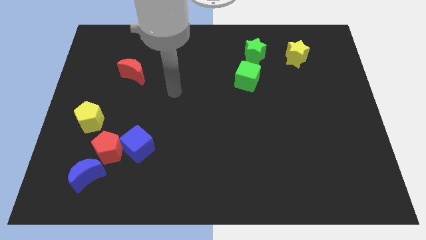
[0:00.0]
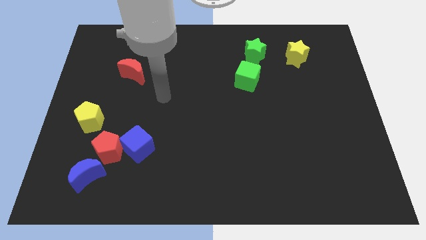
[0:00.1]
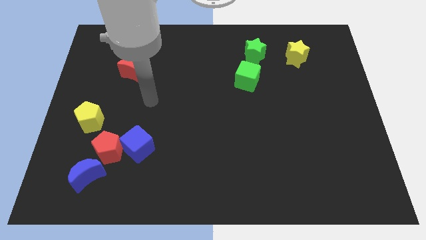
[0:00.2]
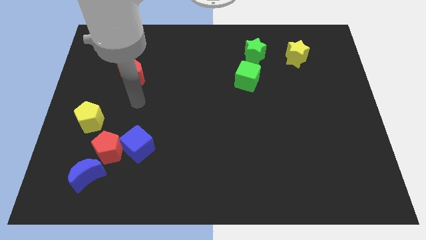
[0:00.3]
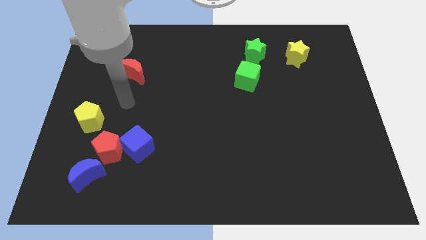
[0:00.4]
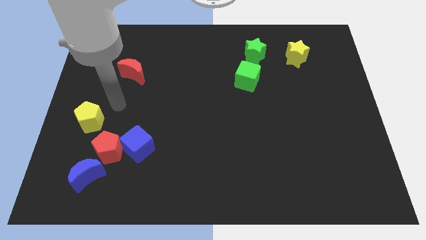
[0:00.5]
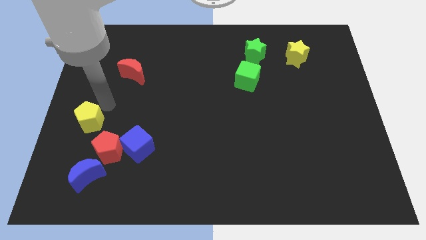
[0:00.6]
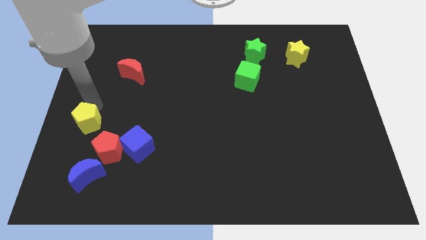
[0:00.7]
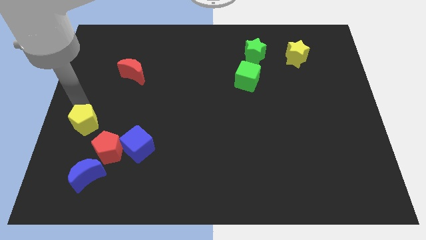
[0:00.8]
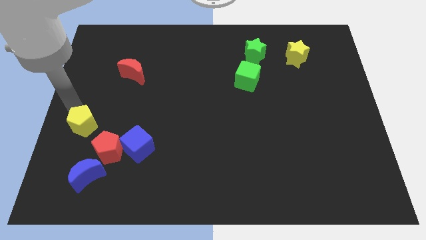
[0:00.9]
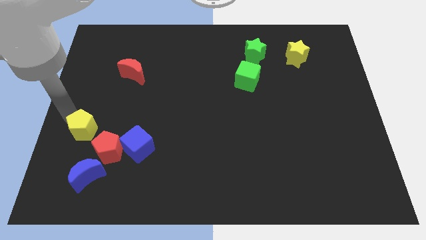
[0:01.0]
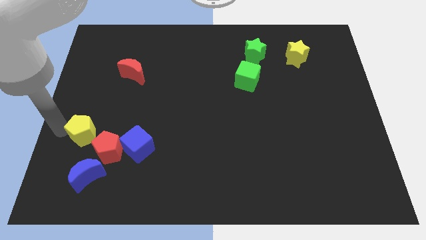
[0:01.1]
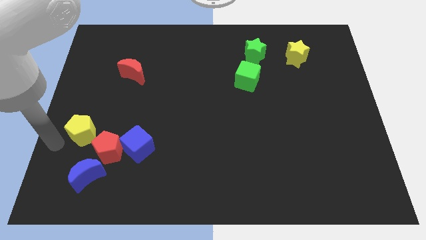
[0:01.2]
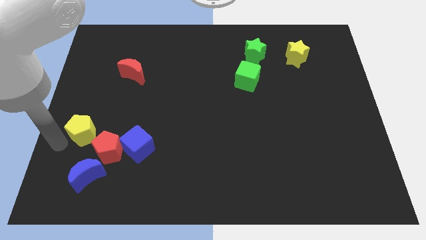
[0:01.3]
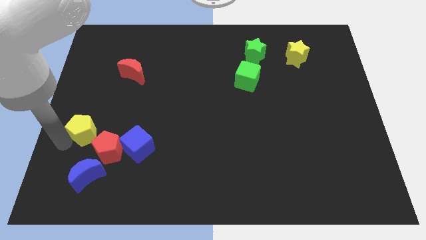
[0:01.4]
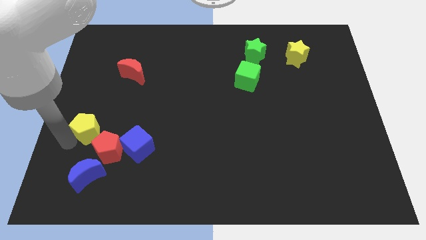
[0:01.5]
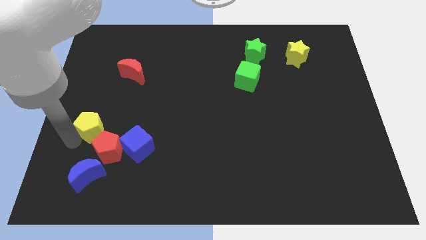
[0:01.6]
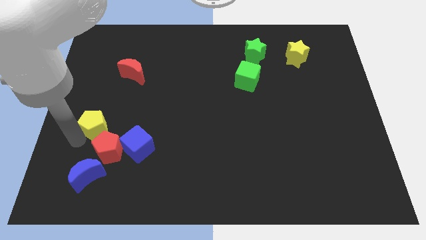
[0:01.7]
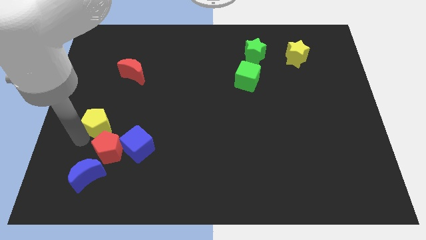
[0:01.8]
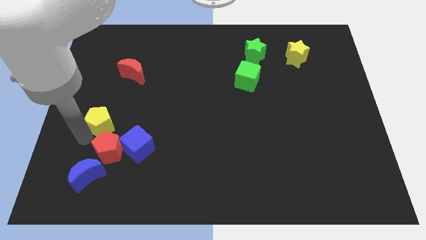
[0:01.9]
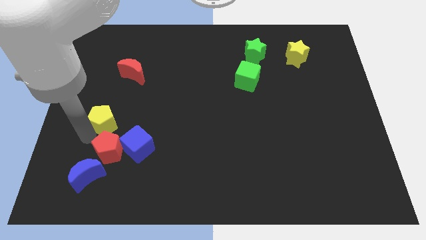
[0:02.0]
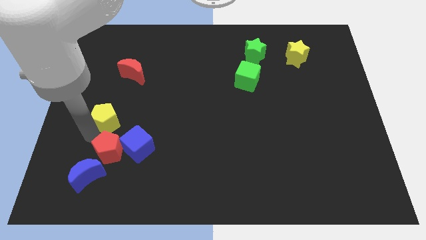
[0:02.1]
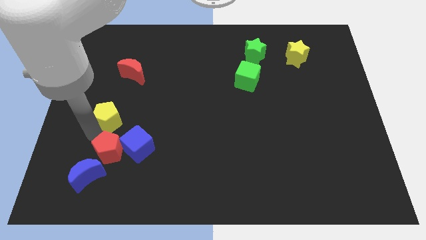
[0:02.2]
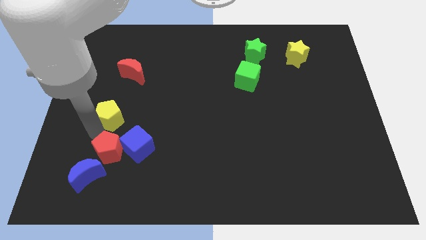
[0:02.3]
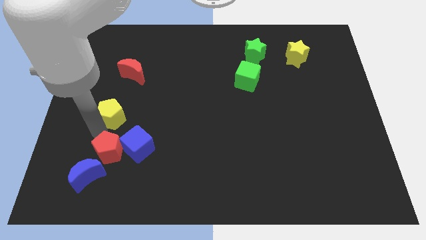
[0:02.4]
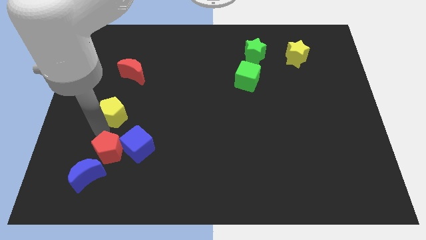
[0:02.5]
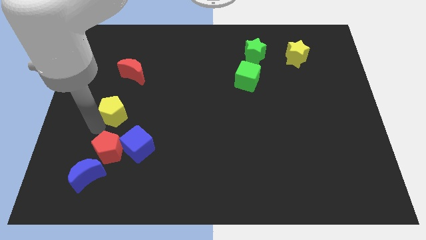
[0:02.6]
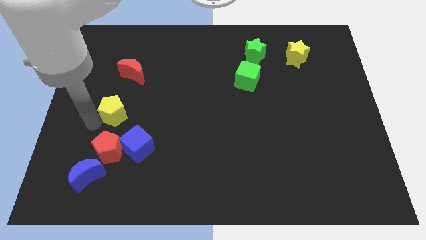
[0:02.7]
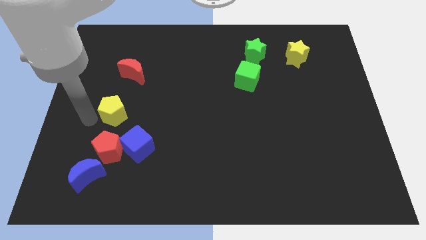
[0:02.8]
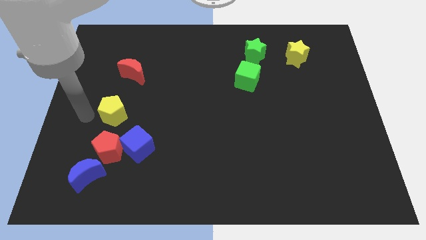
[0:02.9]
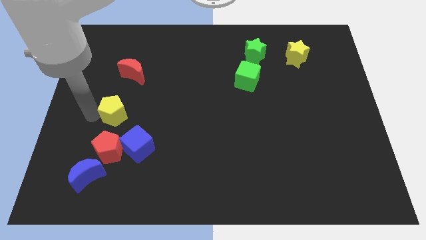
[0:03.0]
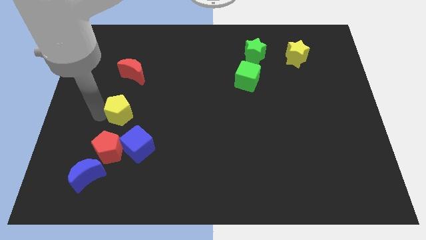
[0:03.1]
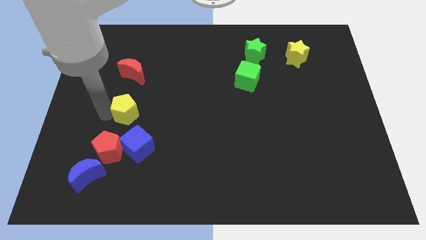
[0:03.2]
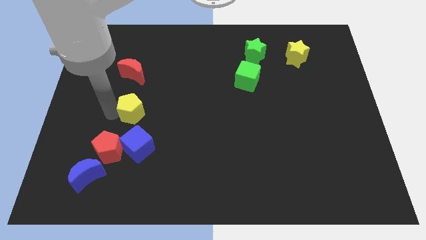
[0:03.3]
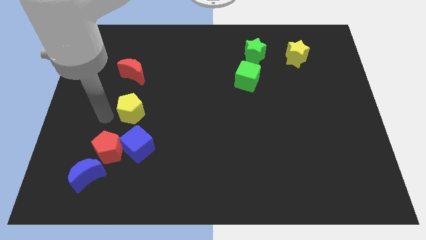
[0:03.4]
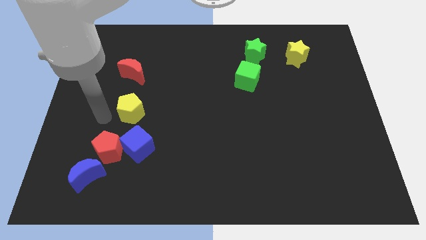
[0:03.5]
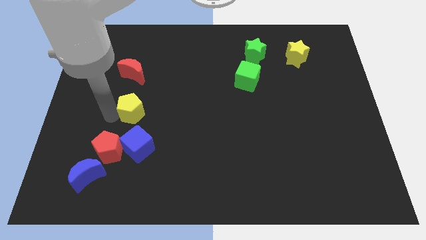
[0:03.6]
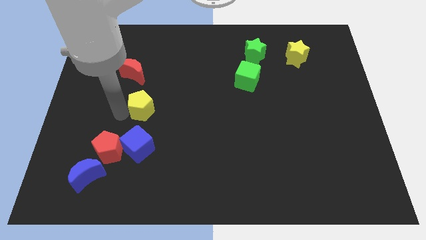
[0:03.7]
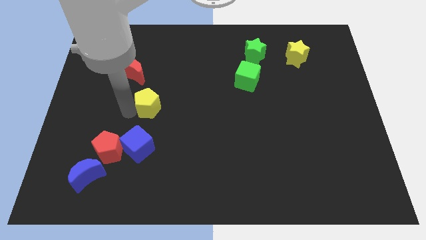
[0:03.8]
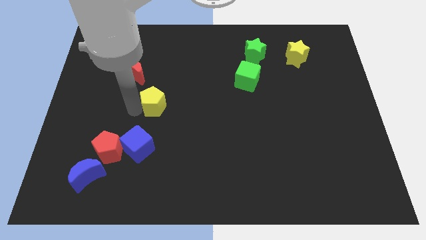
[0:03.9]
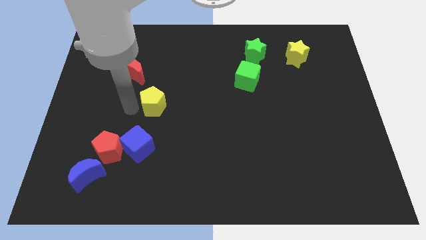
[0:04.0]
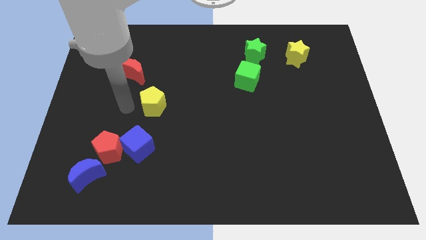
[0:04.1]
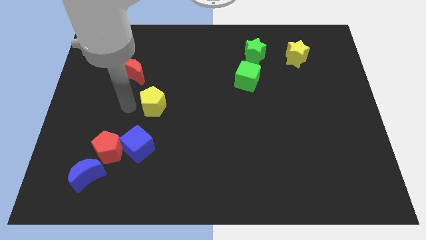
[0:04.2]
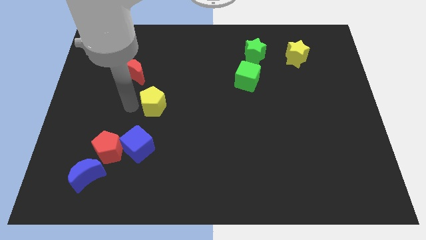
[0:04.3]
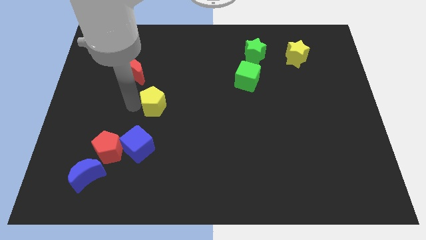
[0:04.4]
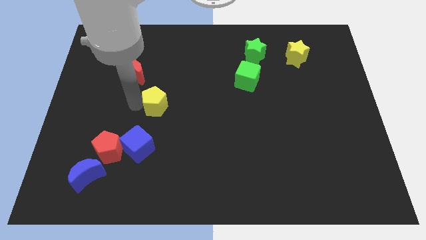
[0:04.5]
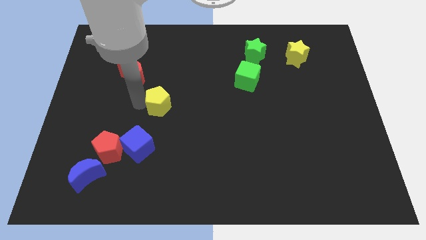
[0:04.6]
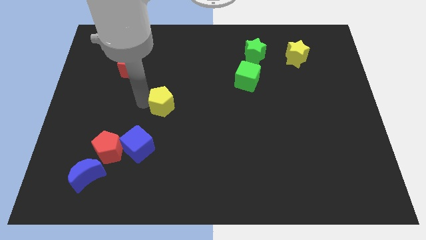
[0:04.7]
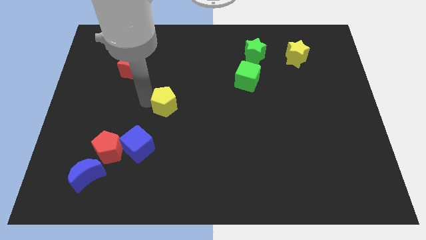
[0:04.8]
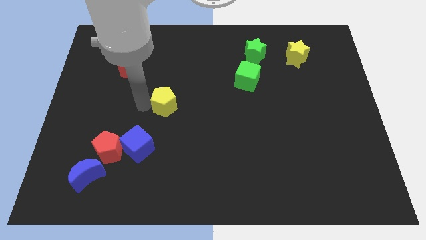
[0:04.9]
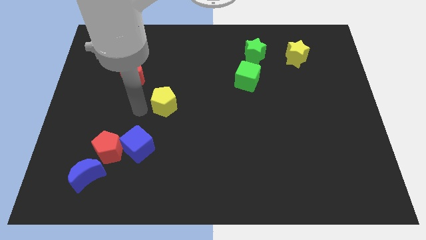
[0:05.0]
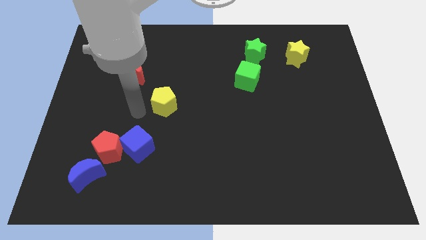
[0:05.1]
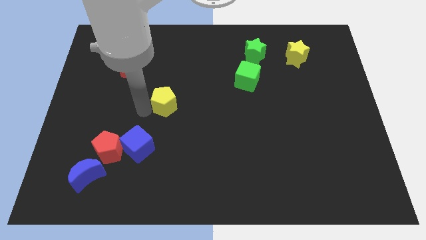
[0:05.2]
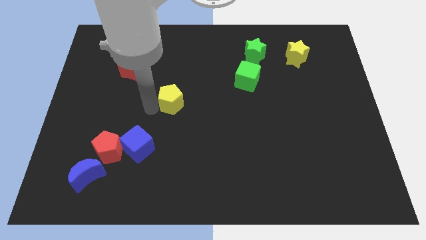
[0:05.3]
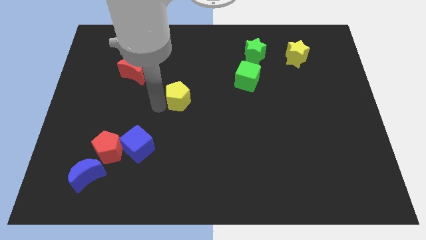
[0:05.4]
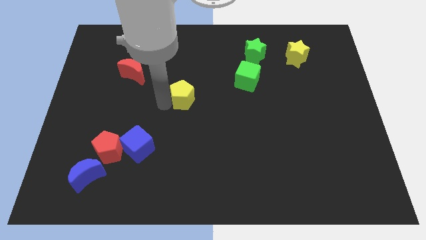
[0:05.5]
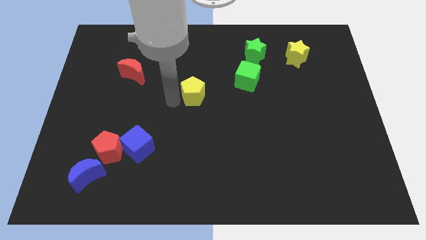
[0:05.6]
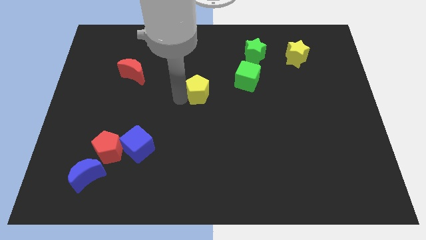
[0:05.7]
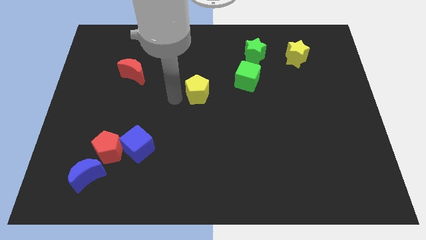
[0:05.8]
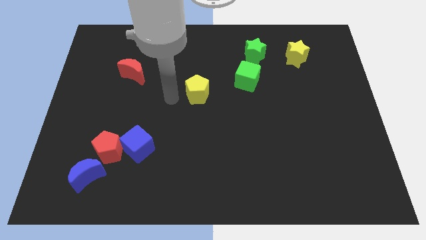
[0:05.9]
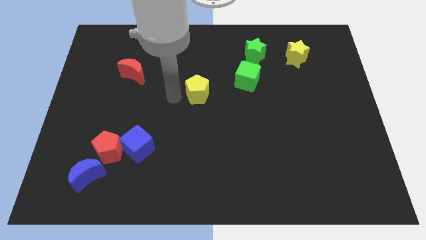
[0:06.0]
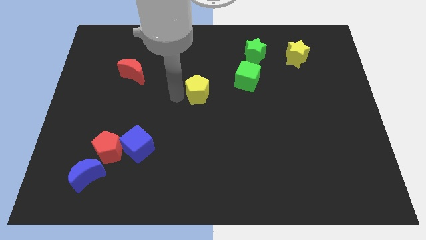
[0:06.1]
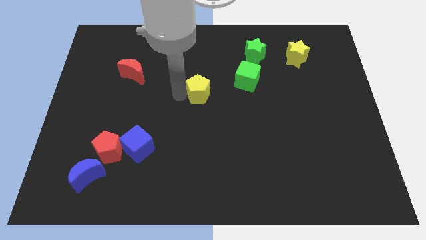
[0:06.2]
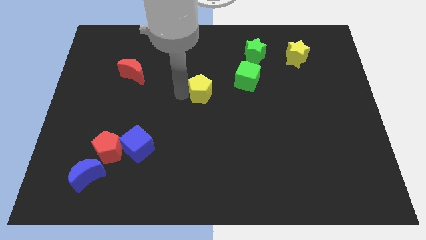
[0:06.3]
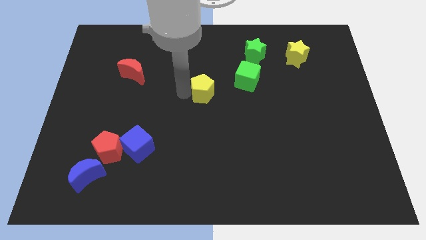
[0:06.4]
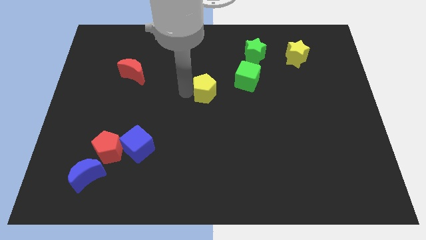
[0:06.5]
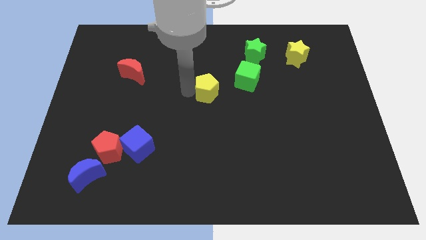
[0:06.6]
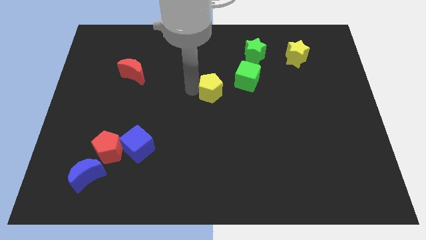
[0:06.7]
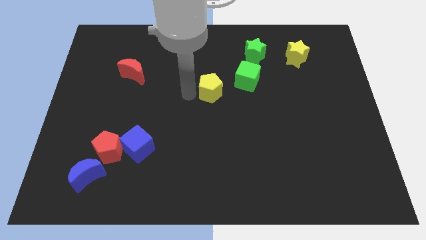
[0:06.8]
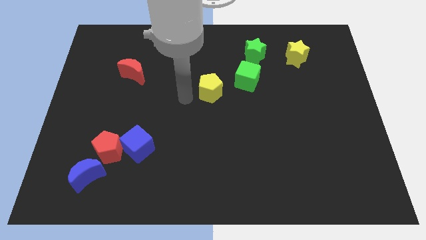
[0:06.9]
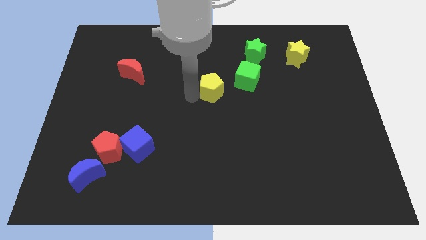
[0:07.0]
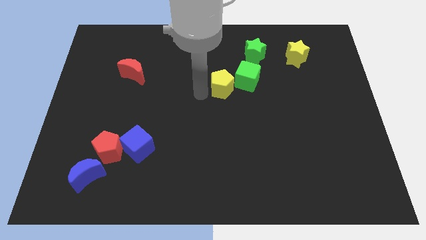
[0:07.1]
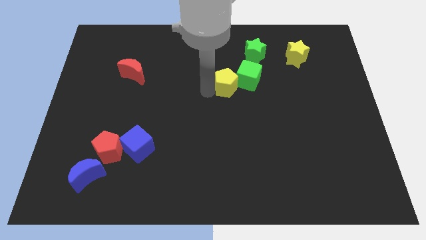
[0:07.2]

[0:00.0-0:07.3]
move the yellow pentagon close to the green cube
